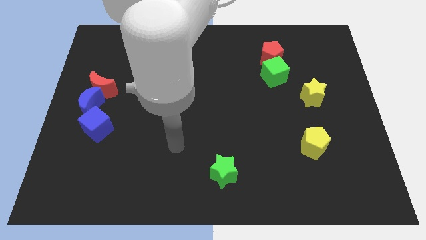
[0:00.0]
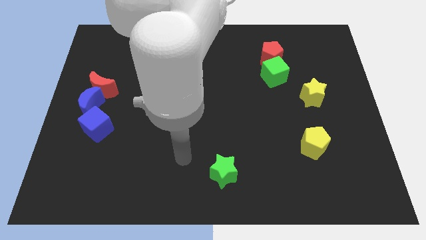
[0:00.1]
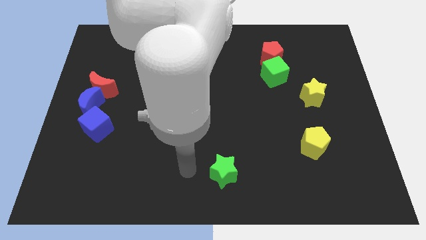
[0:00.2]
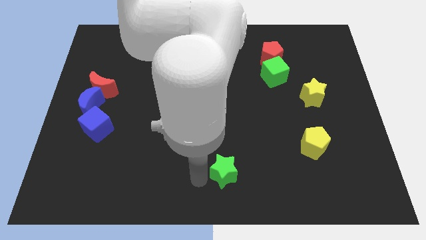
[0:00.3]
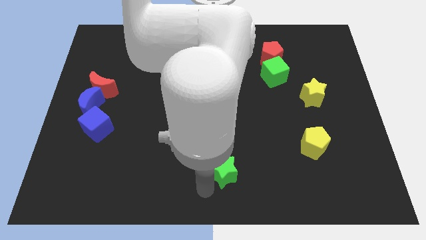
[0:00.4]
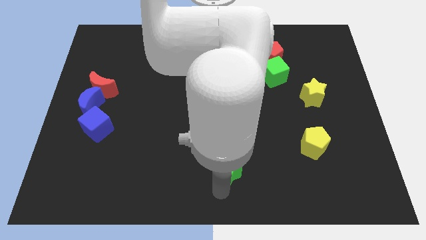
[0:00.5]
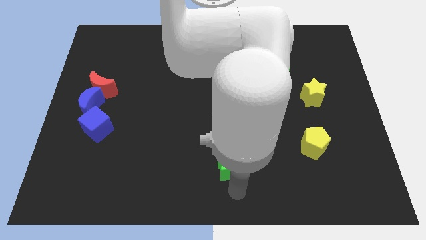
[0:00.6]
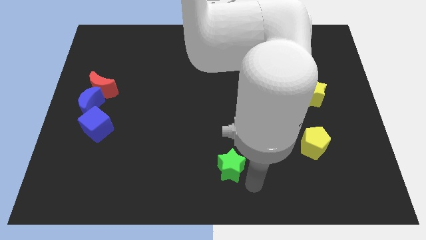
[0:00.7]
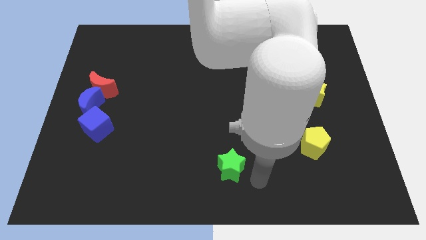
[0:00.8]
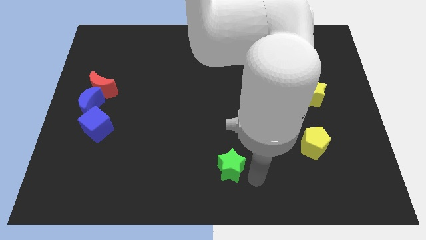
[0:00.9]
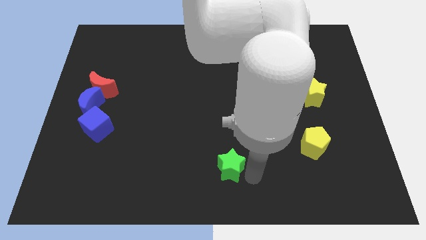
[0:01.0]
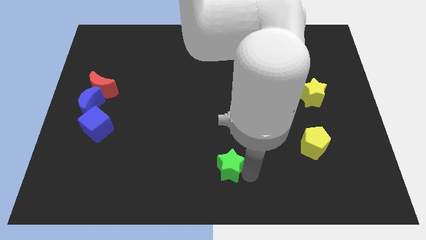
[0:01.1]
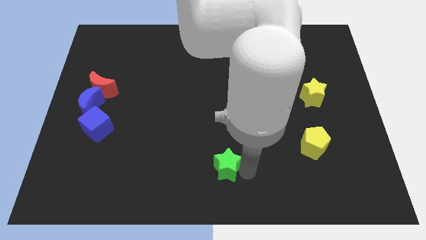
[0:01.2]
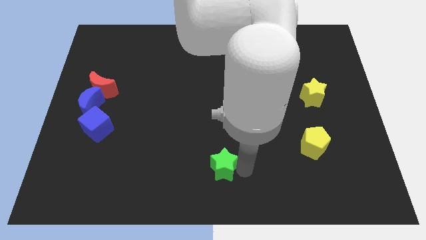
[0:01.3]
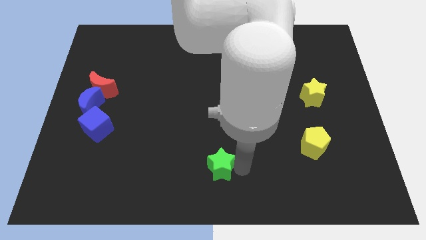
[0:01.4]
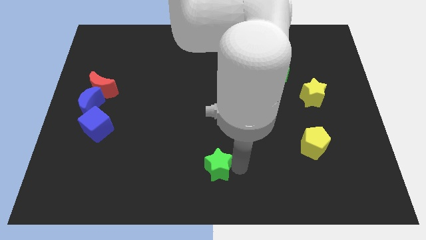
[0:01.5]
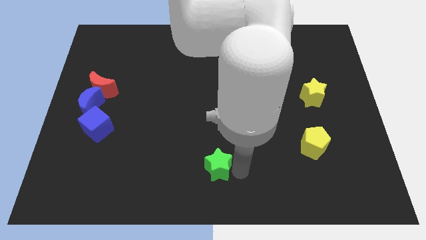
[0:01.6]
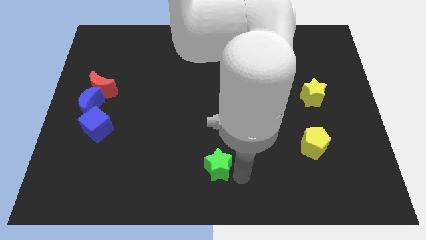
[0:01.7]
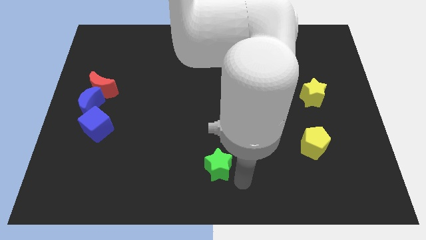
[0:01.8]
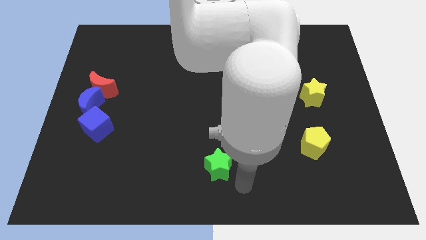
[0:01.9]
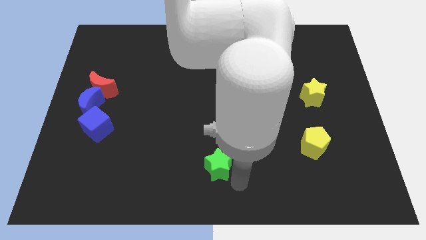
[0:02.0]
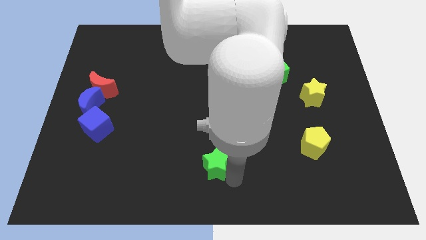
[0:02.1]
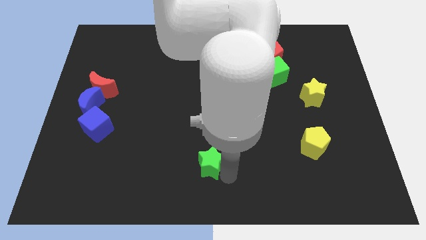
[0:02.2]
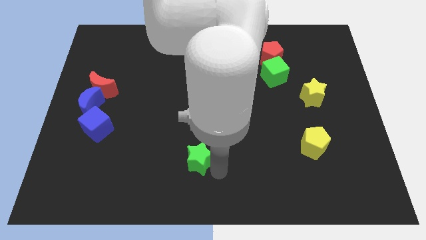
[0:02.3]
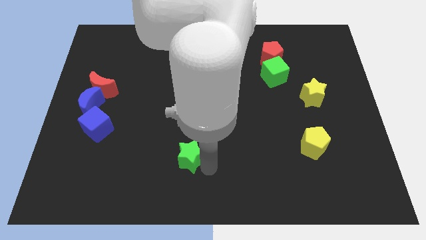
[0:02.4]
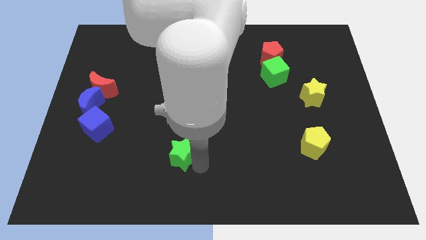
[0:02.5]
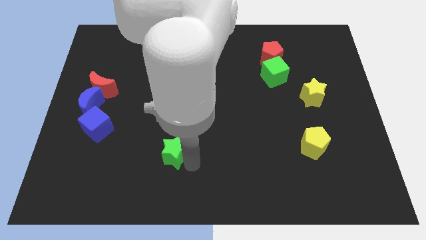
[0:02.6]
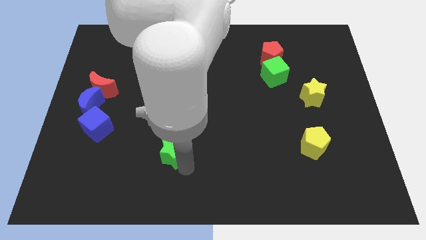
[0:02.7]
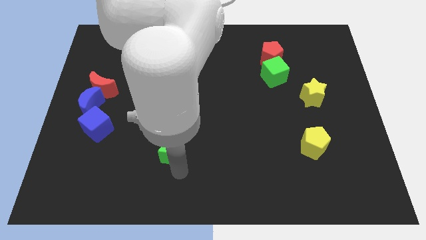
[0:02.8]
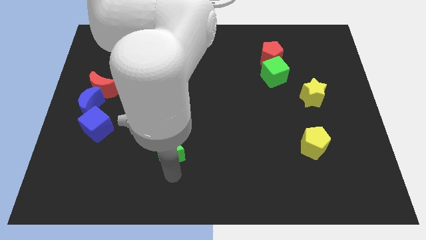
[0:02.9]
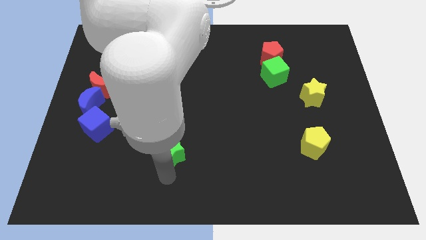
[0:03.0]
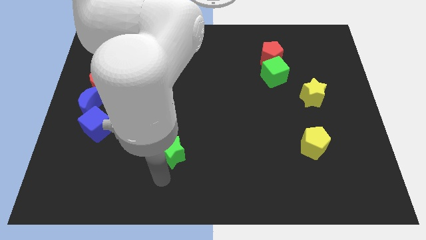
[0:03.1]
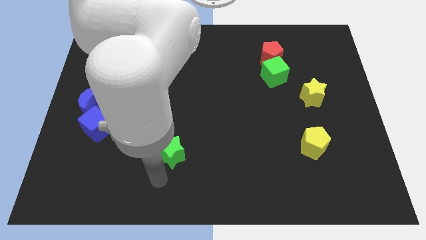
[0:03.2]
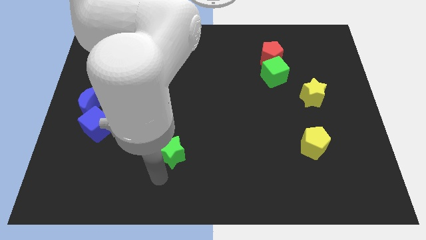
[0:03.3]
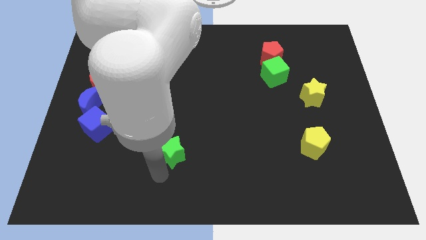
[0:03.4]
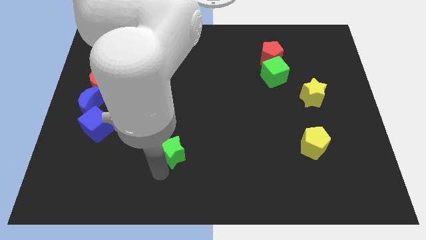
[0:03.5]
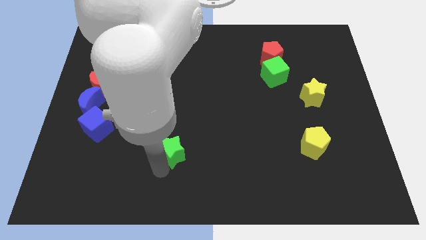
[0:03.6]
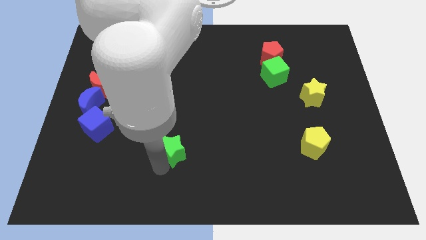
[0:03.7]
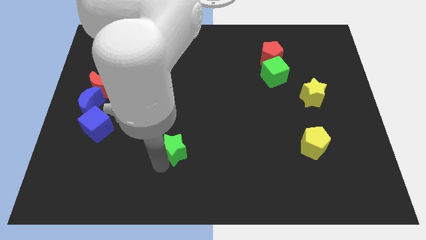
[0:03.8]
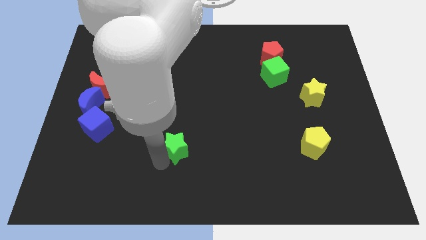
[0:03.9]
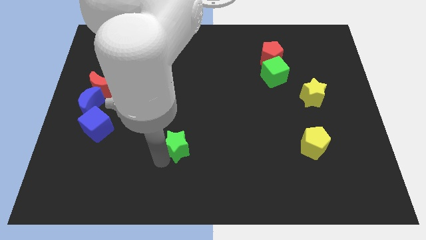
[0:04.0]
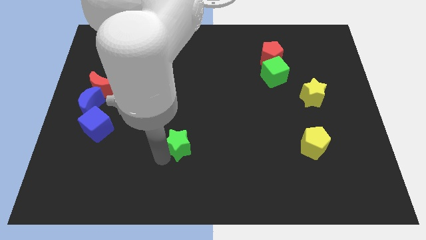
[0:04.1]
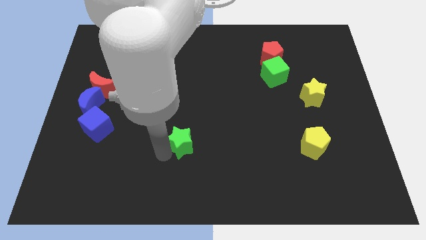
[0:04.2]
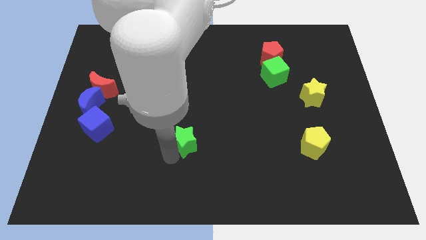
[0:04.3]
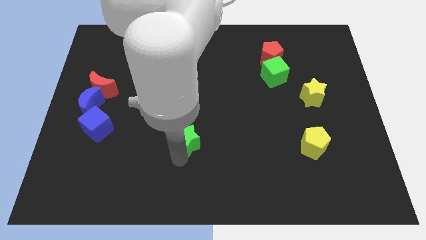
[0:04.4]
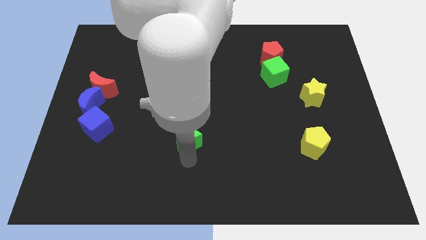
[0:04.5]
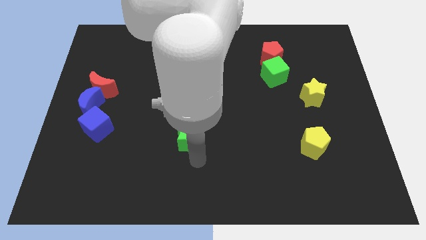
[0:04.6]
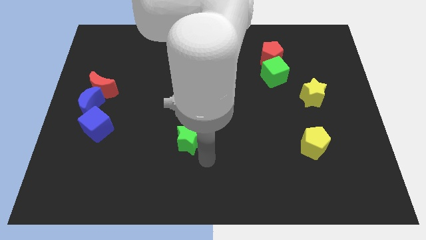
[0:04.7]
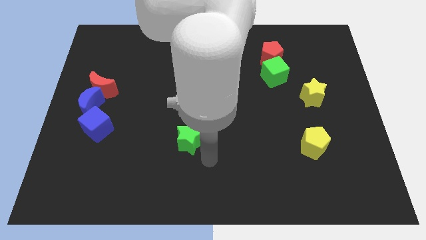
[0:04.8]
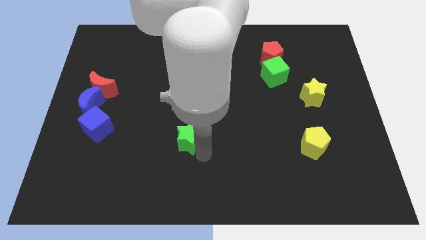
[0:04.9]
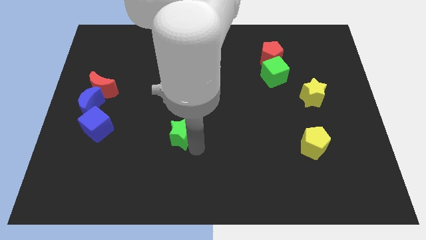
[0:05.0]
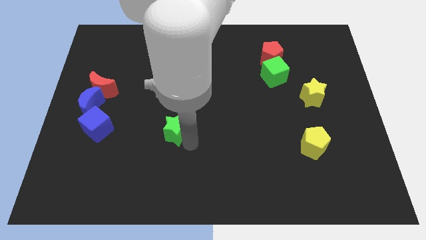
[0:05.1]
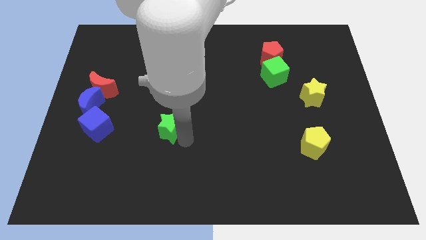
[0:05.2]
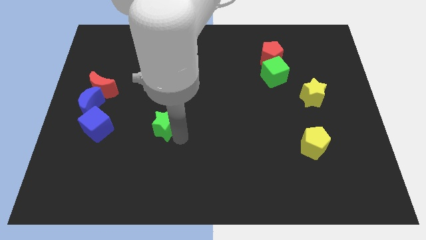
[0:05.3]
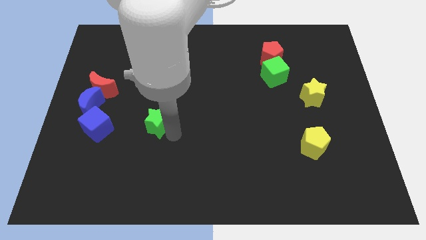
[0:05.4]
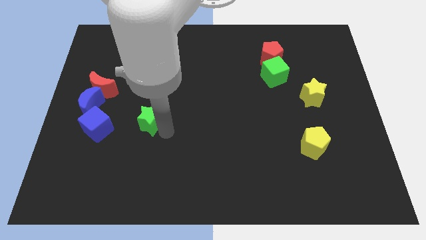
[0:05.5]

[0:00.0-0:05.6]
push the green star upwards and to the left

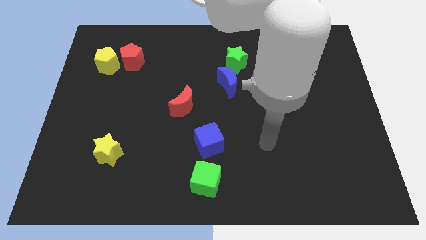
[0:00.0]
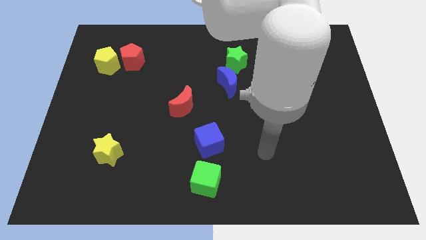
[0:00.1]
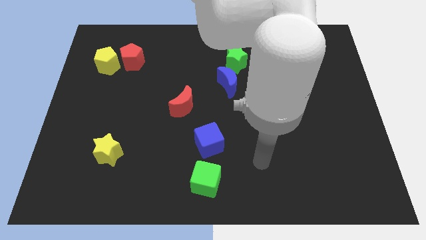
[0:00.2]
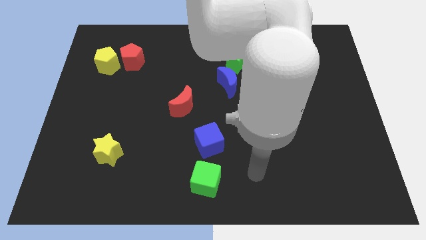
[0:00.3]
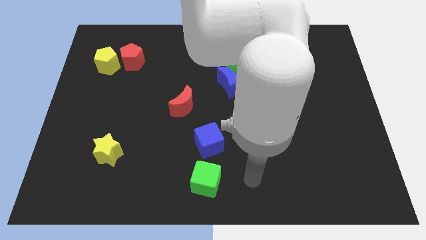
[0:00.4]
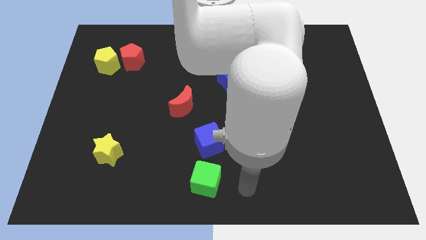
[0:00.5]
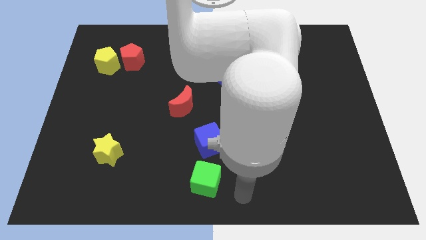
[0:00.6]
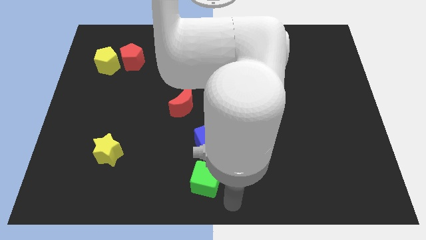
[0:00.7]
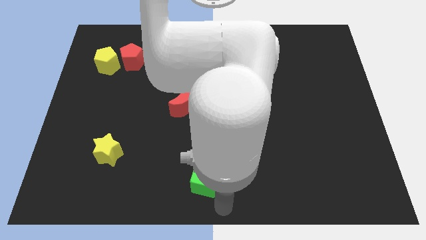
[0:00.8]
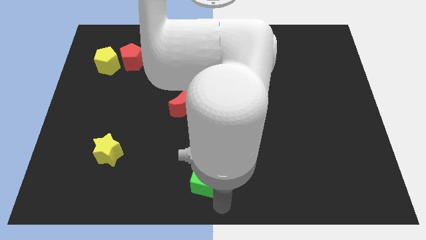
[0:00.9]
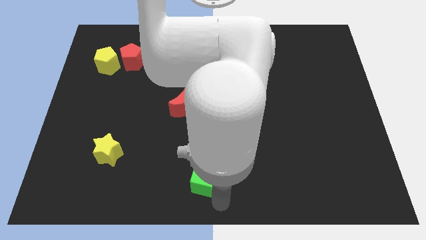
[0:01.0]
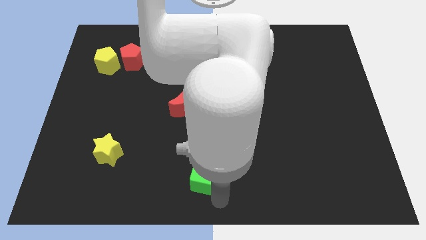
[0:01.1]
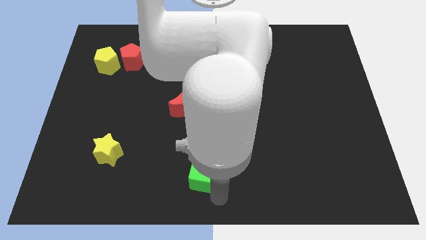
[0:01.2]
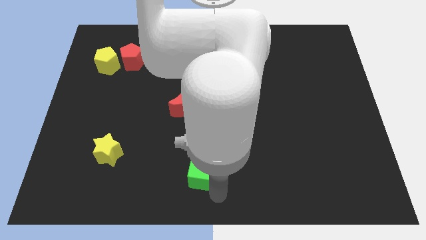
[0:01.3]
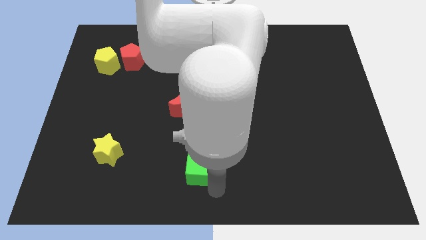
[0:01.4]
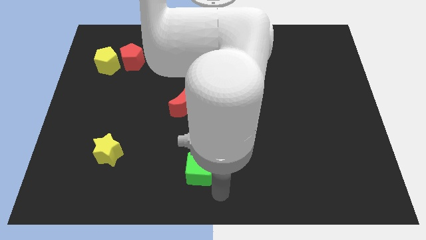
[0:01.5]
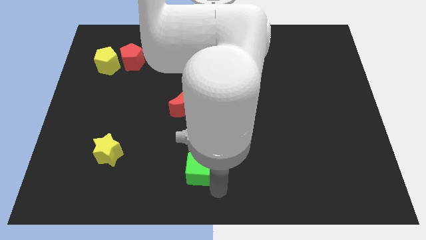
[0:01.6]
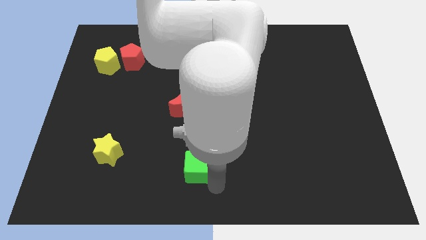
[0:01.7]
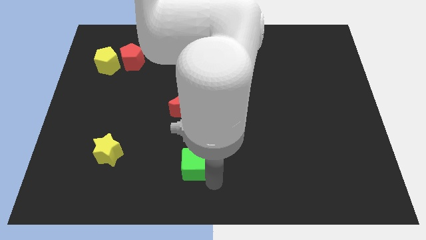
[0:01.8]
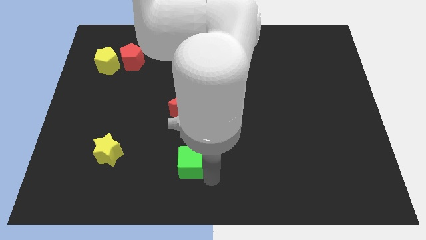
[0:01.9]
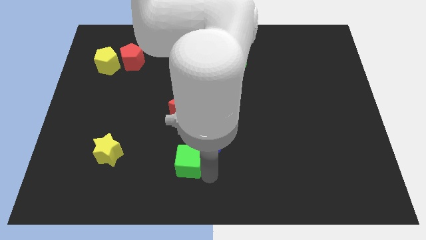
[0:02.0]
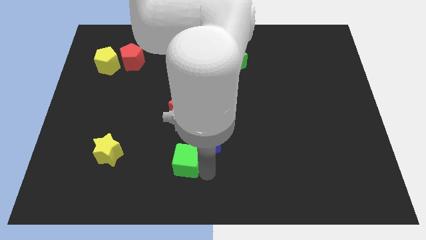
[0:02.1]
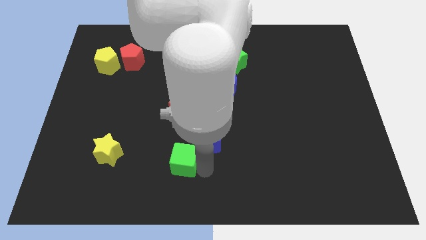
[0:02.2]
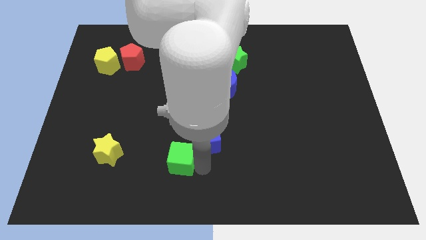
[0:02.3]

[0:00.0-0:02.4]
push the green cube upwards and then left a bit
